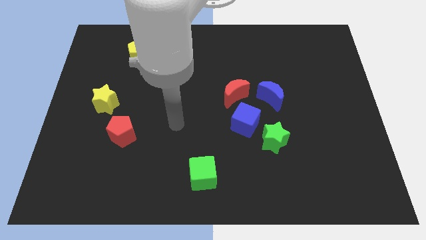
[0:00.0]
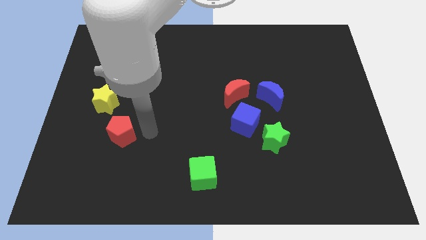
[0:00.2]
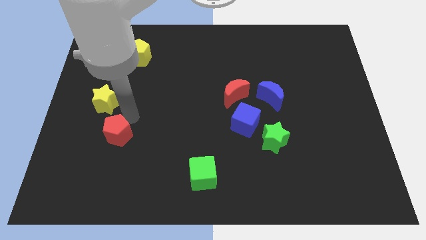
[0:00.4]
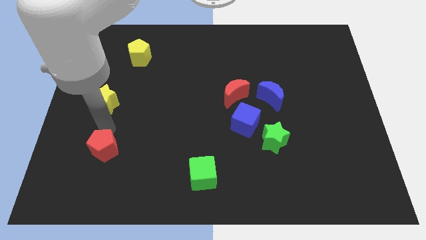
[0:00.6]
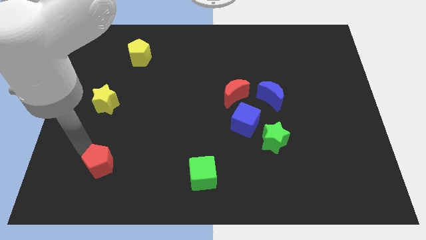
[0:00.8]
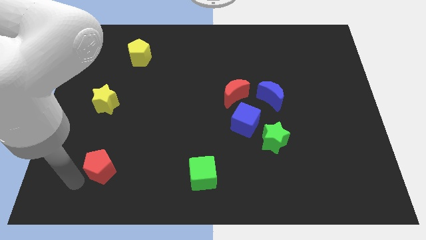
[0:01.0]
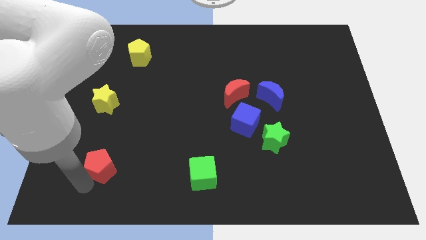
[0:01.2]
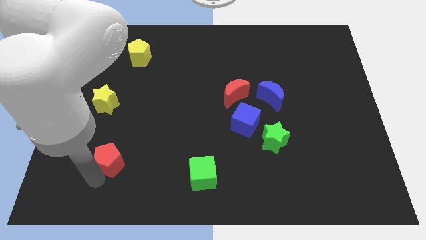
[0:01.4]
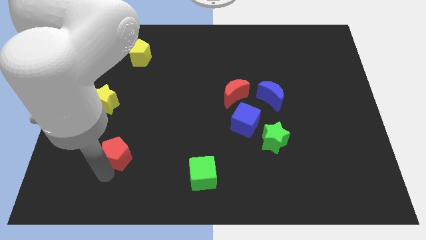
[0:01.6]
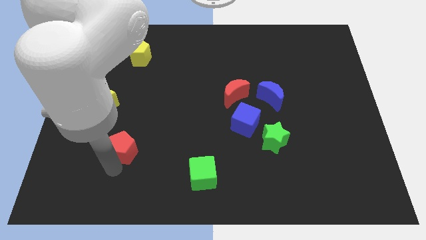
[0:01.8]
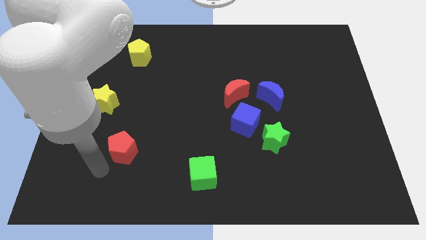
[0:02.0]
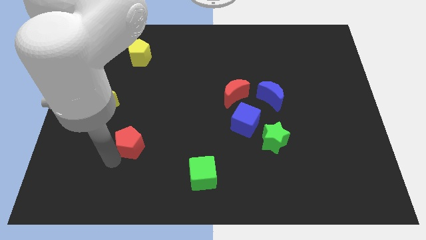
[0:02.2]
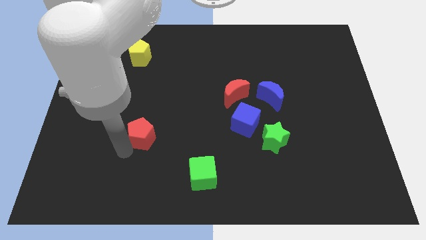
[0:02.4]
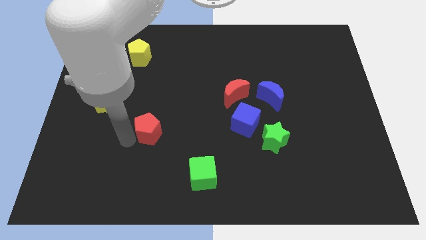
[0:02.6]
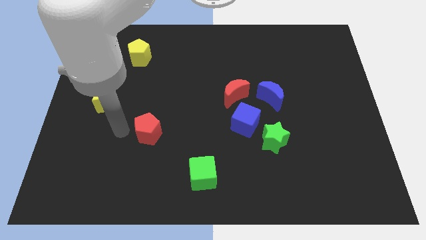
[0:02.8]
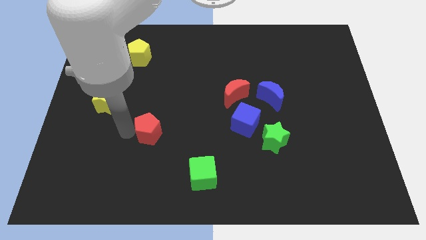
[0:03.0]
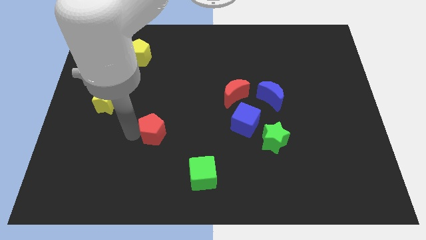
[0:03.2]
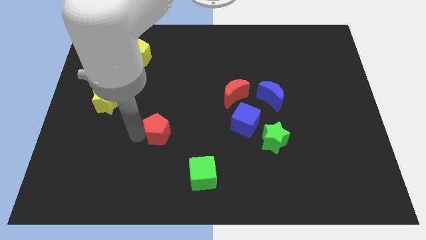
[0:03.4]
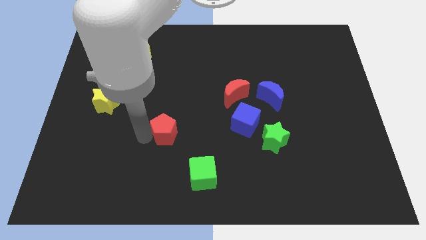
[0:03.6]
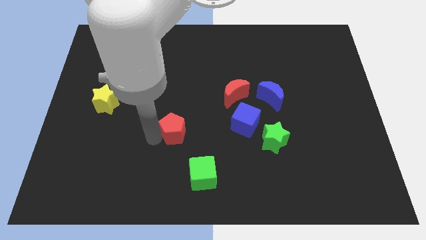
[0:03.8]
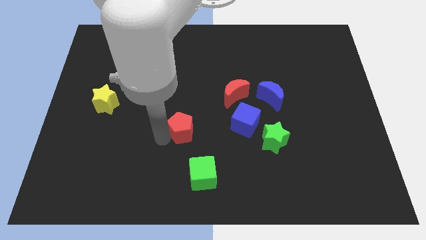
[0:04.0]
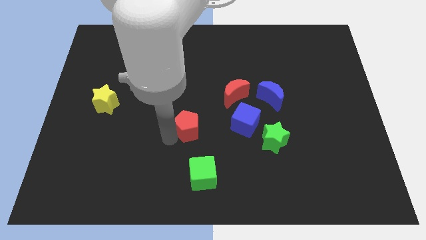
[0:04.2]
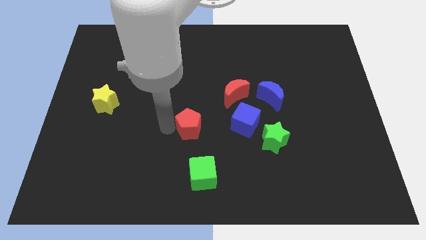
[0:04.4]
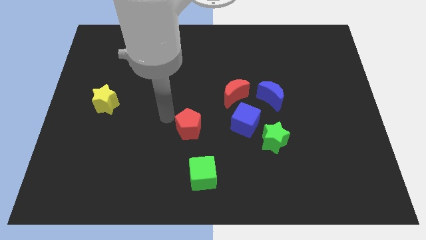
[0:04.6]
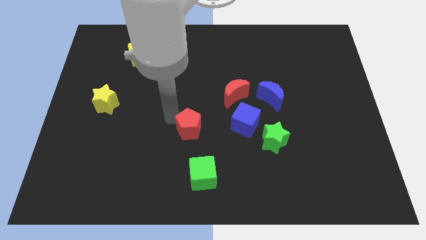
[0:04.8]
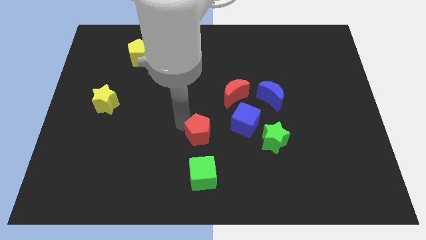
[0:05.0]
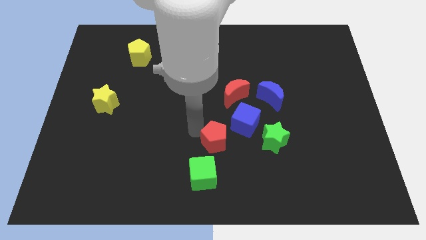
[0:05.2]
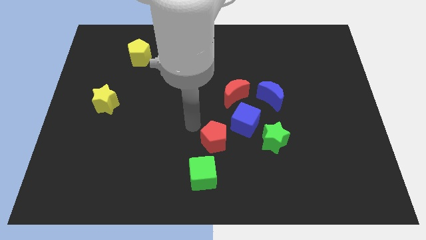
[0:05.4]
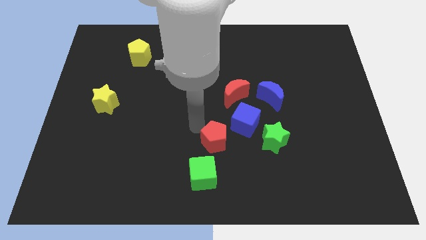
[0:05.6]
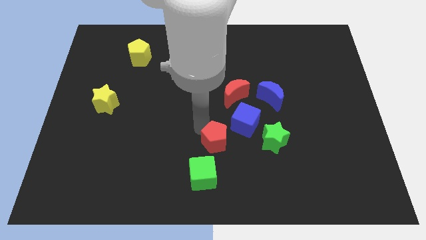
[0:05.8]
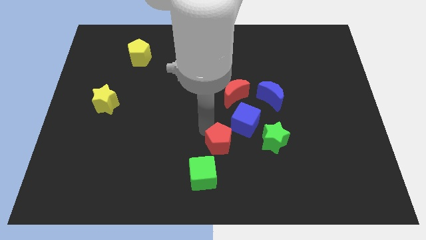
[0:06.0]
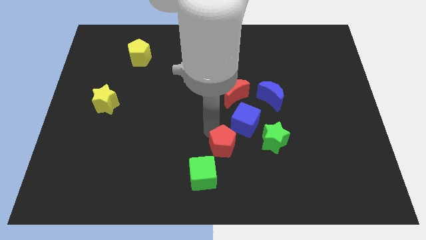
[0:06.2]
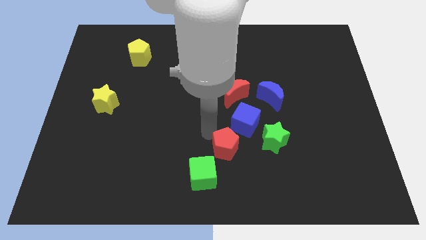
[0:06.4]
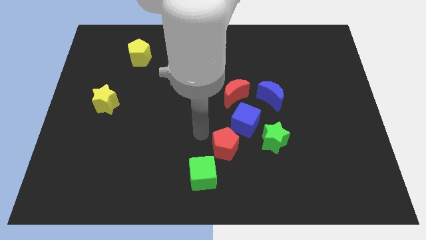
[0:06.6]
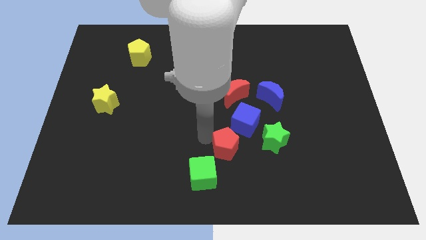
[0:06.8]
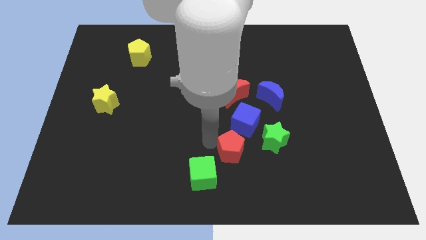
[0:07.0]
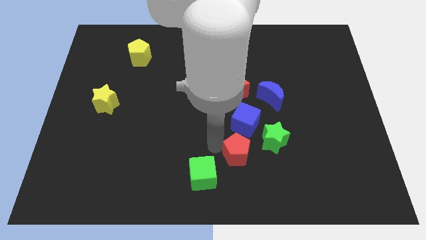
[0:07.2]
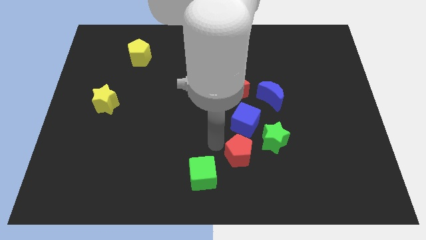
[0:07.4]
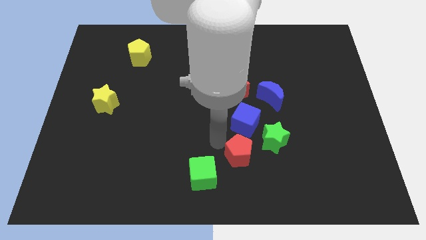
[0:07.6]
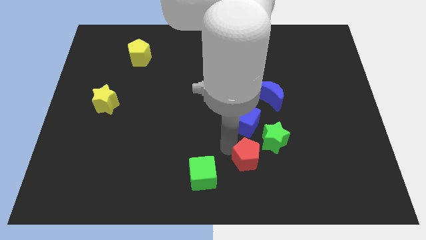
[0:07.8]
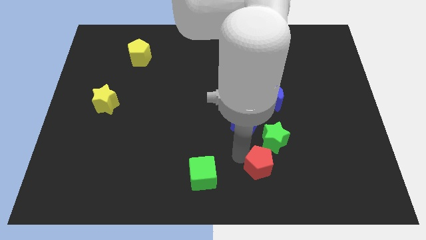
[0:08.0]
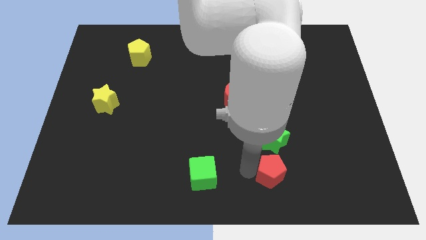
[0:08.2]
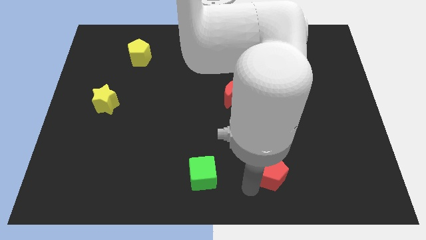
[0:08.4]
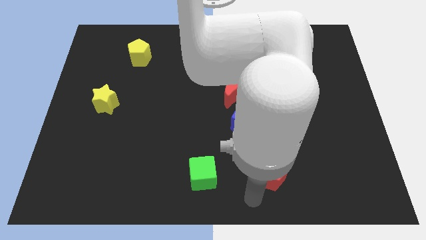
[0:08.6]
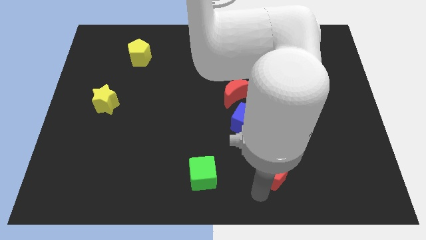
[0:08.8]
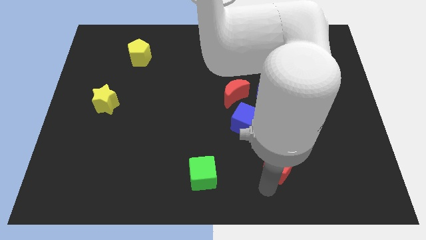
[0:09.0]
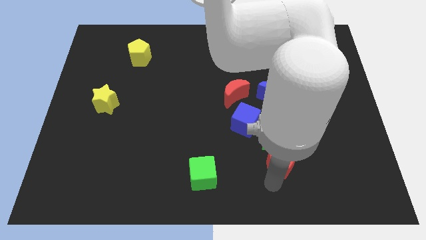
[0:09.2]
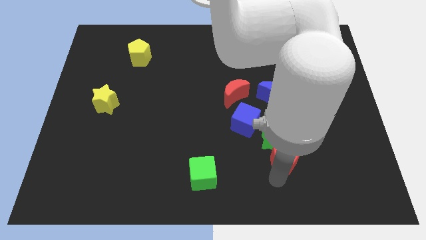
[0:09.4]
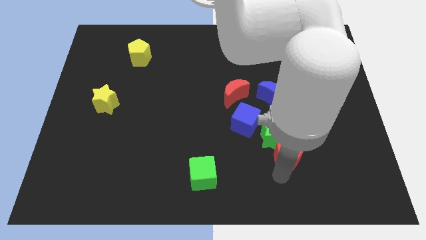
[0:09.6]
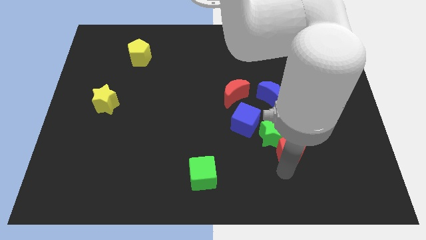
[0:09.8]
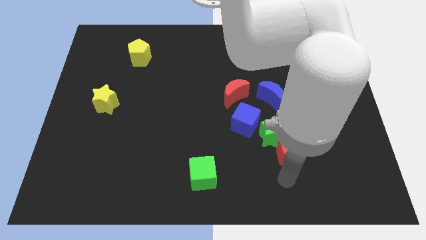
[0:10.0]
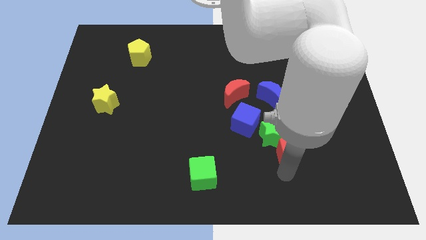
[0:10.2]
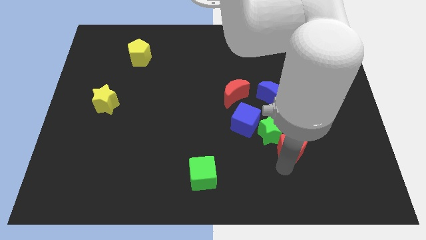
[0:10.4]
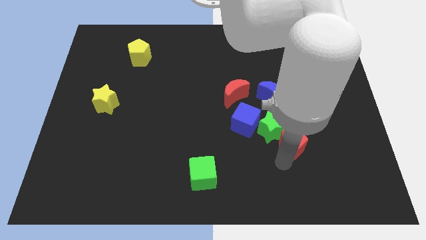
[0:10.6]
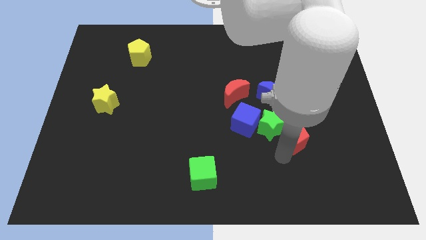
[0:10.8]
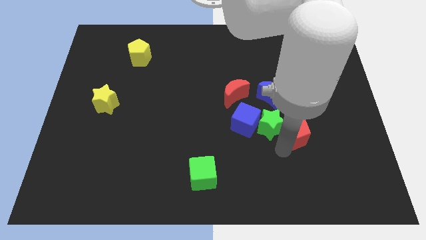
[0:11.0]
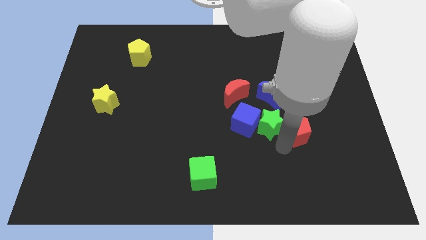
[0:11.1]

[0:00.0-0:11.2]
slide the red pentagon diagonally down and to the right of the blue moon

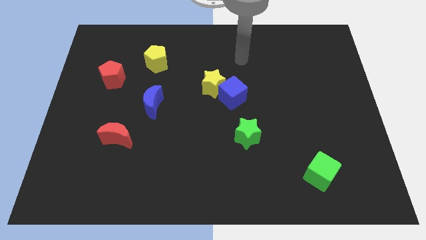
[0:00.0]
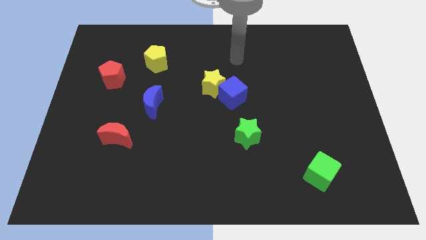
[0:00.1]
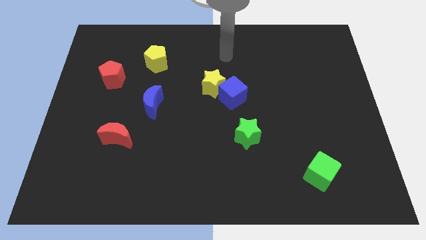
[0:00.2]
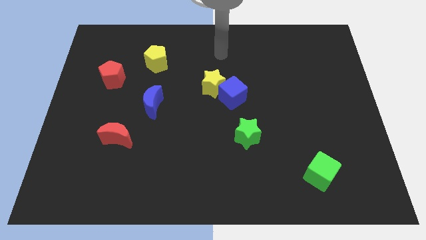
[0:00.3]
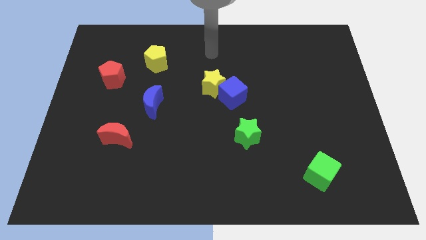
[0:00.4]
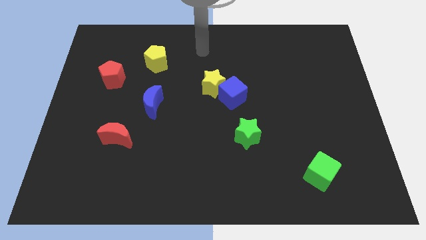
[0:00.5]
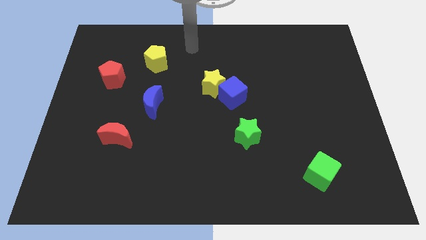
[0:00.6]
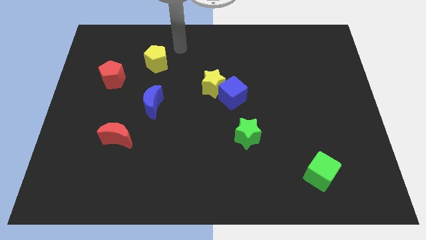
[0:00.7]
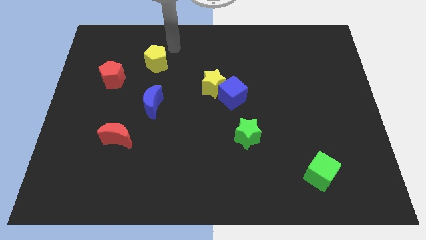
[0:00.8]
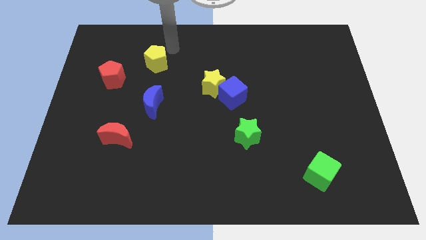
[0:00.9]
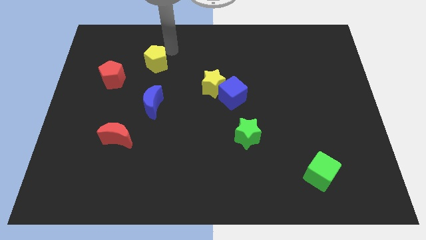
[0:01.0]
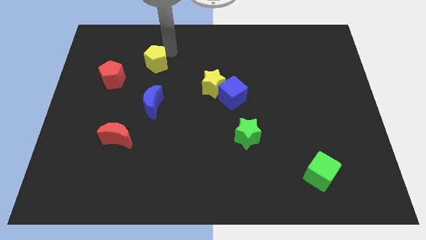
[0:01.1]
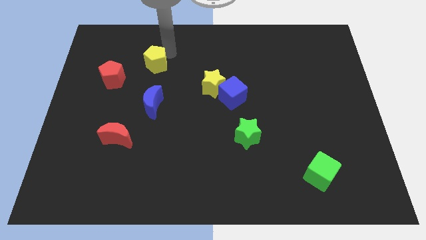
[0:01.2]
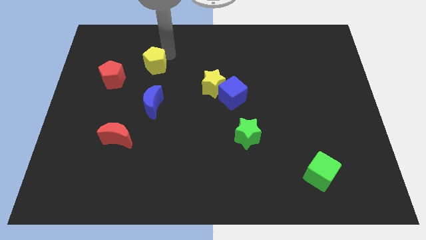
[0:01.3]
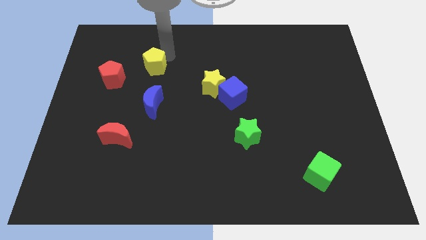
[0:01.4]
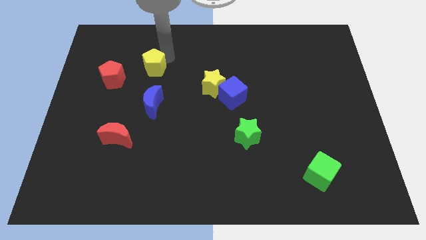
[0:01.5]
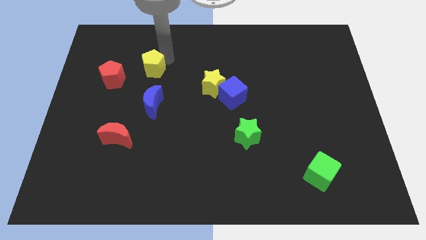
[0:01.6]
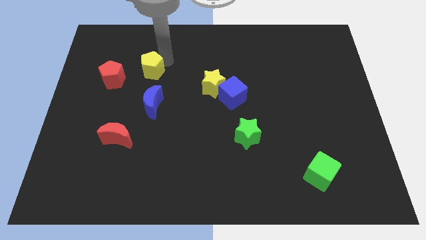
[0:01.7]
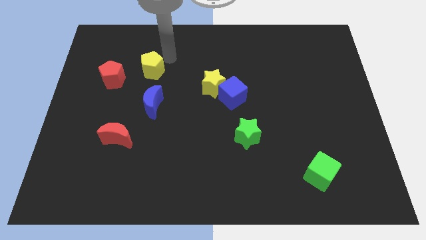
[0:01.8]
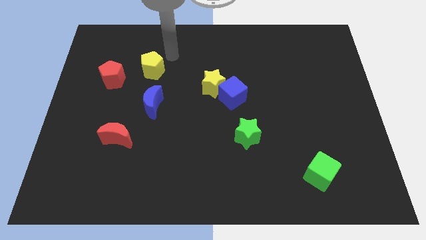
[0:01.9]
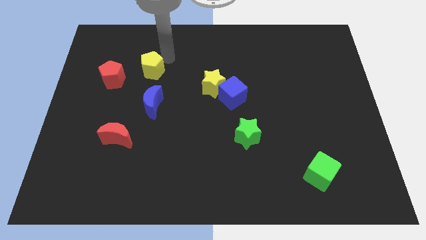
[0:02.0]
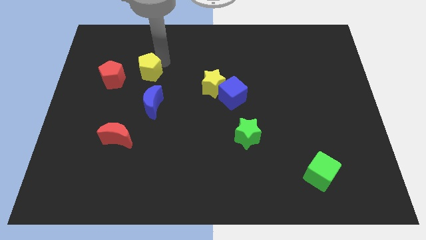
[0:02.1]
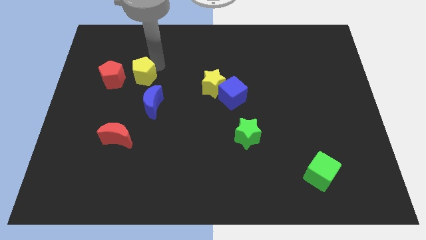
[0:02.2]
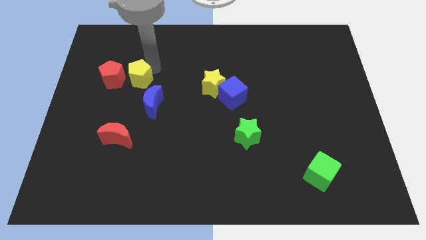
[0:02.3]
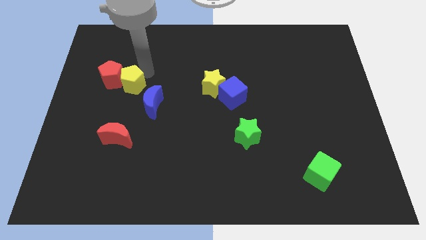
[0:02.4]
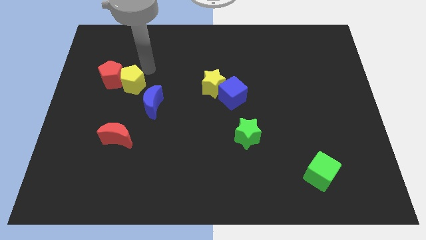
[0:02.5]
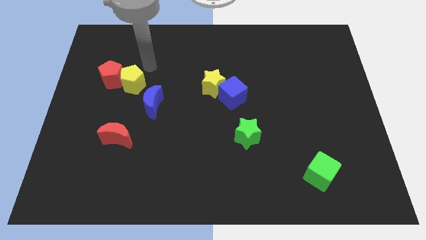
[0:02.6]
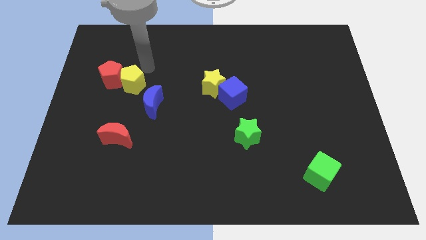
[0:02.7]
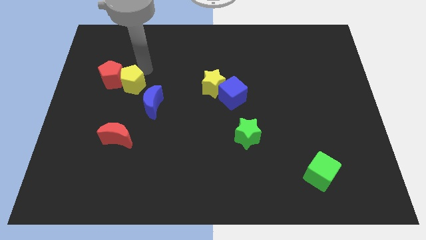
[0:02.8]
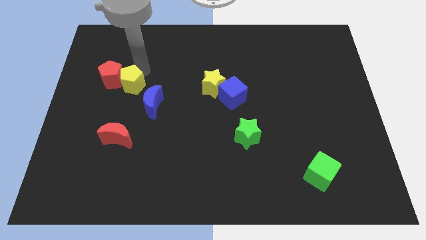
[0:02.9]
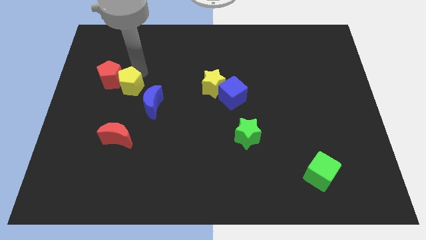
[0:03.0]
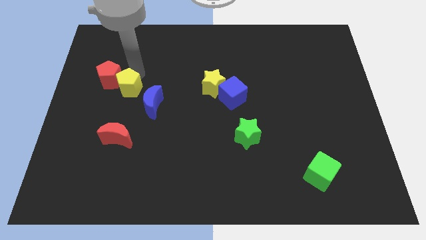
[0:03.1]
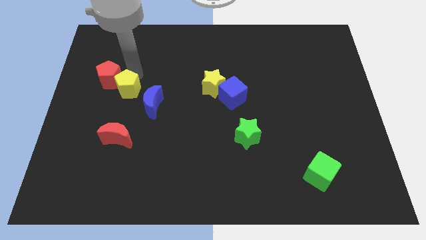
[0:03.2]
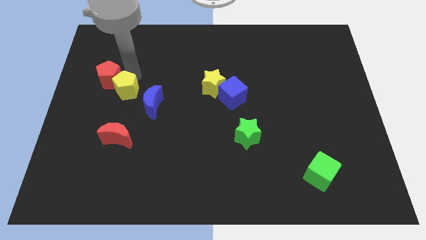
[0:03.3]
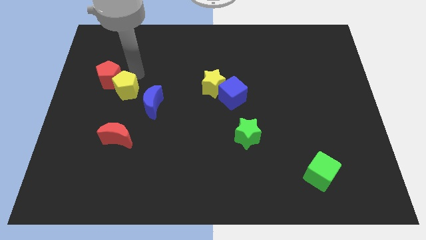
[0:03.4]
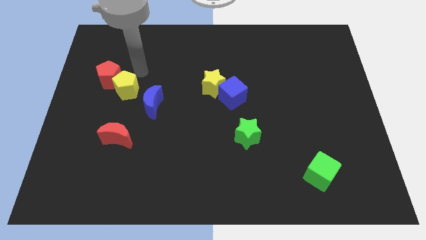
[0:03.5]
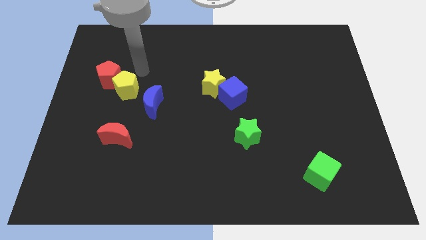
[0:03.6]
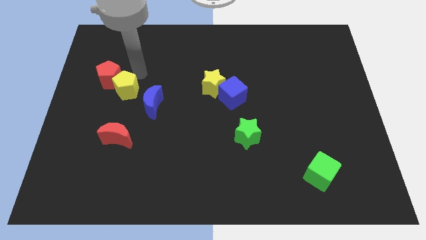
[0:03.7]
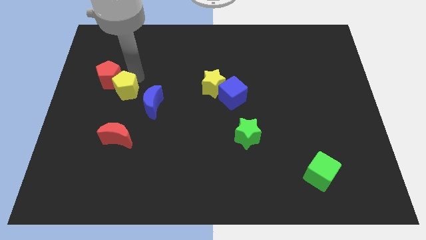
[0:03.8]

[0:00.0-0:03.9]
push the yellow pentagon to the bottom side of the red pentagon
